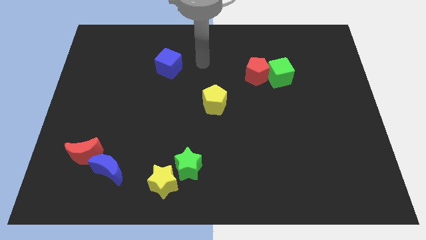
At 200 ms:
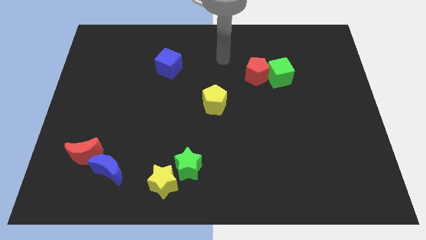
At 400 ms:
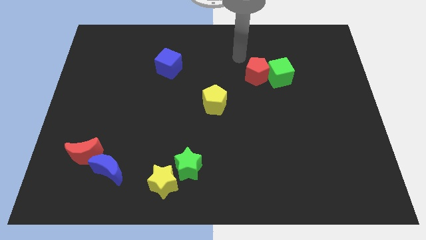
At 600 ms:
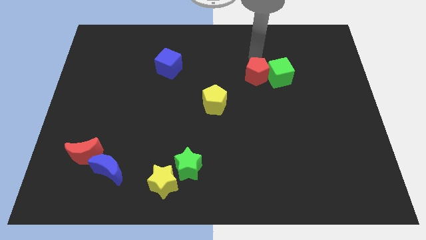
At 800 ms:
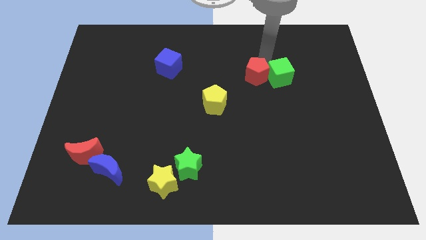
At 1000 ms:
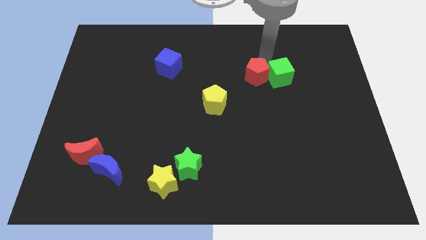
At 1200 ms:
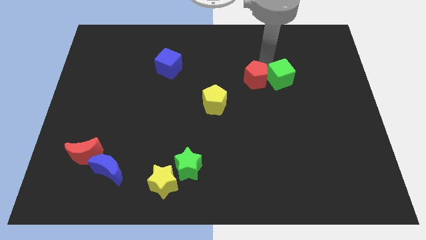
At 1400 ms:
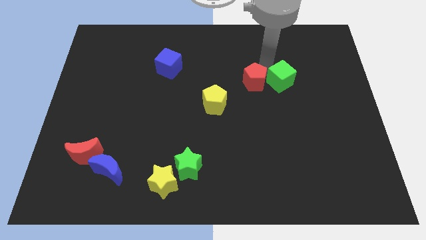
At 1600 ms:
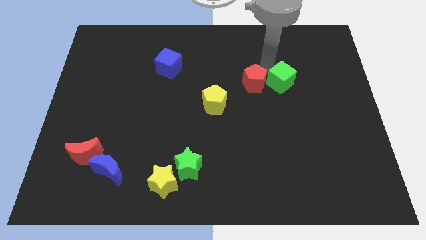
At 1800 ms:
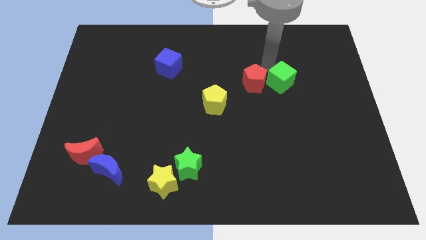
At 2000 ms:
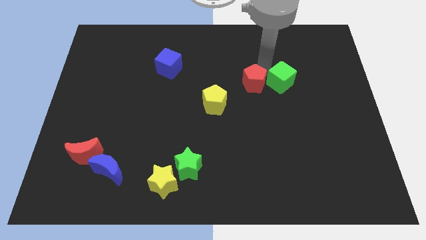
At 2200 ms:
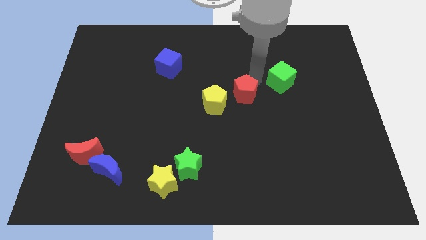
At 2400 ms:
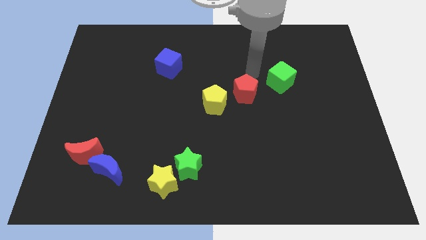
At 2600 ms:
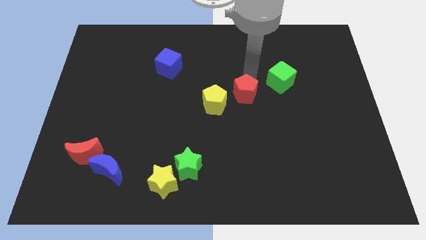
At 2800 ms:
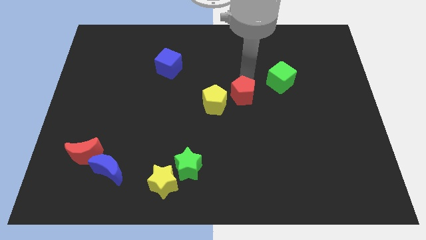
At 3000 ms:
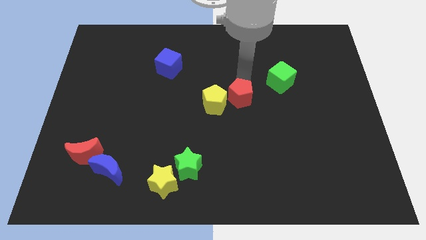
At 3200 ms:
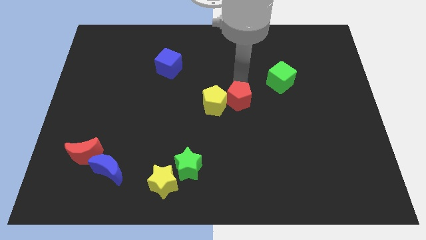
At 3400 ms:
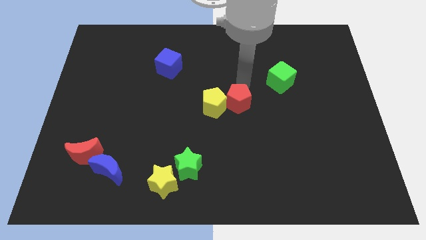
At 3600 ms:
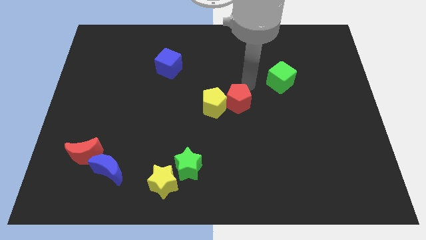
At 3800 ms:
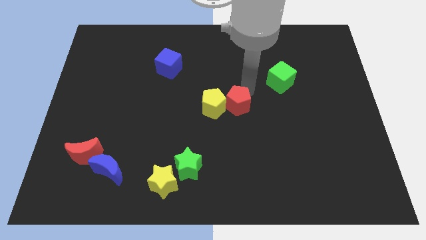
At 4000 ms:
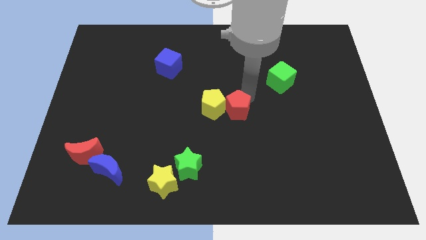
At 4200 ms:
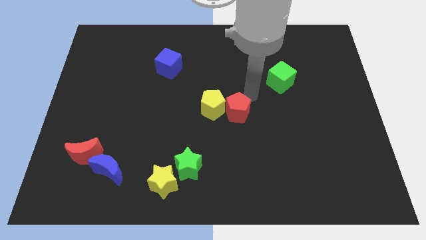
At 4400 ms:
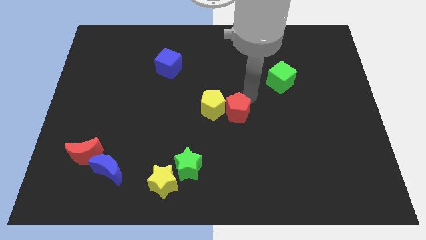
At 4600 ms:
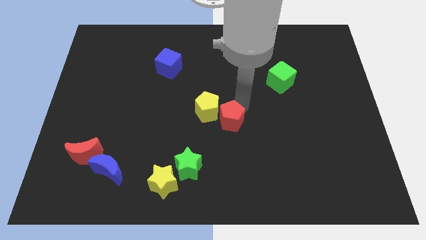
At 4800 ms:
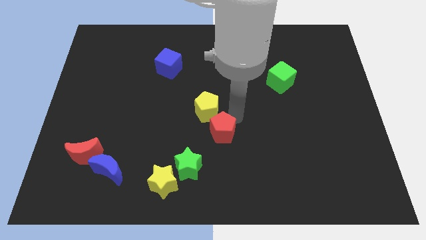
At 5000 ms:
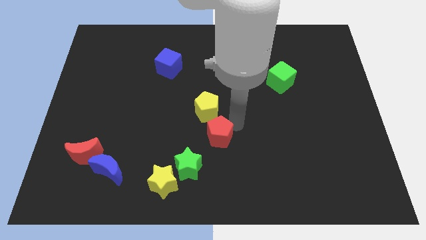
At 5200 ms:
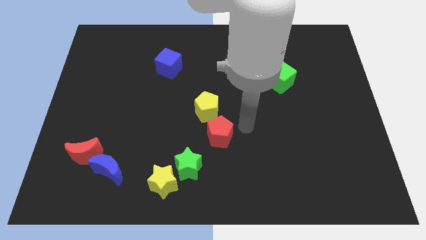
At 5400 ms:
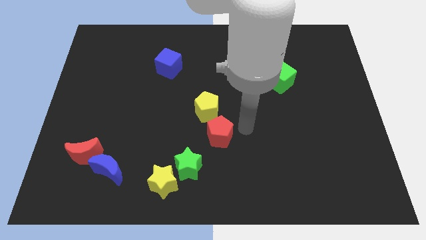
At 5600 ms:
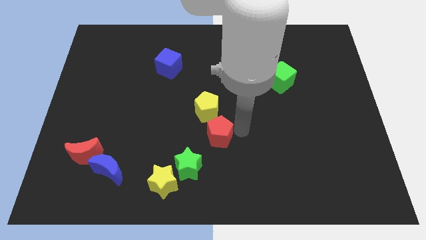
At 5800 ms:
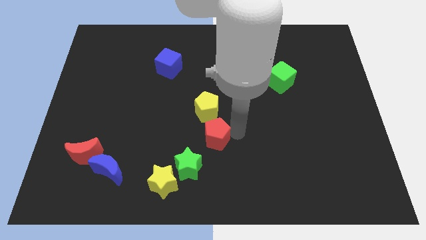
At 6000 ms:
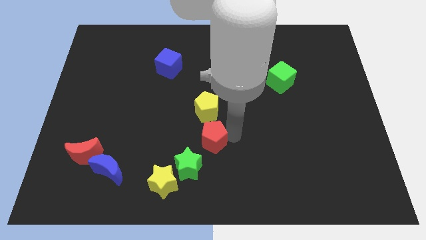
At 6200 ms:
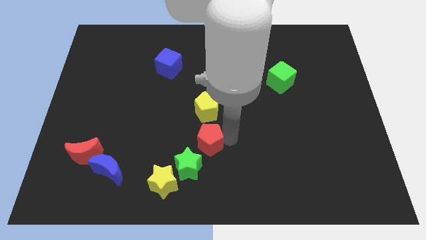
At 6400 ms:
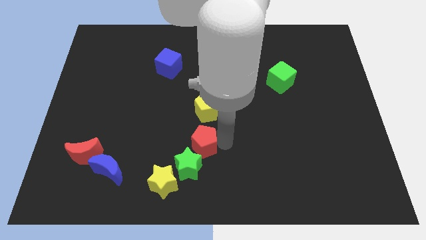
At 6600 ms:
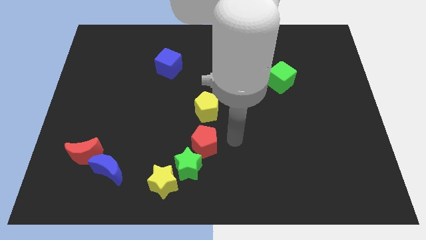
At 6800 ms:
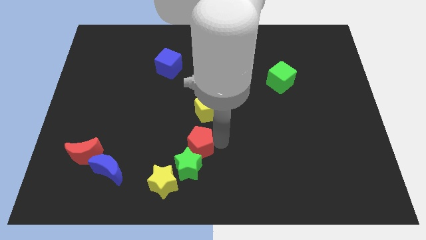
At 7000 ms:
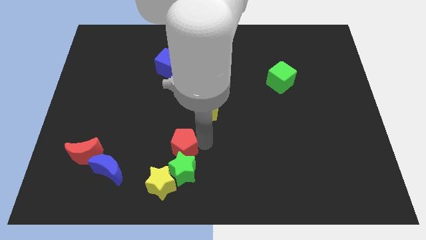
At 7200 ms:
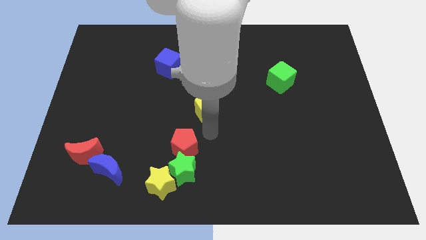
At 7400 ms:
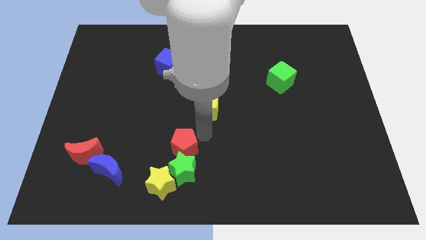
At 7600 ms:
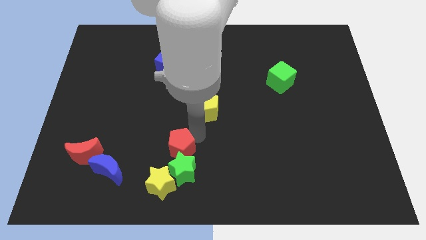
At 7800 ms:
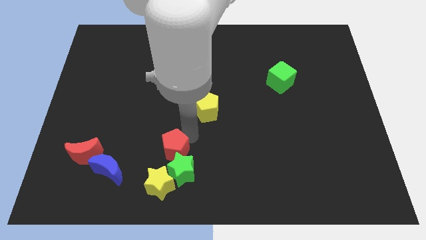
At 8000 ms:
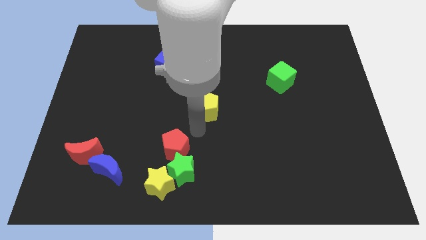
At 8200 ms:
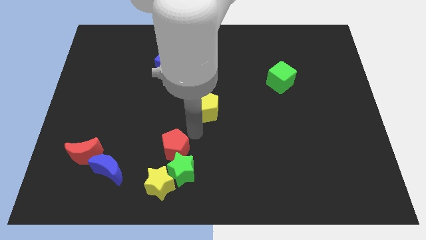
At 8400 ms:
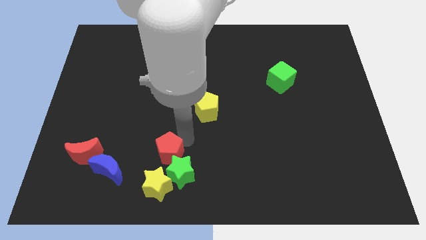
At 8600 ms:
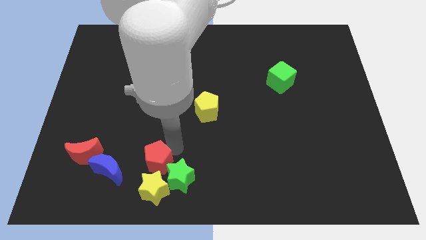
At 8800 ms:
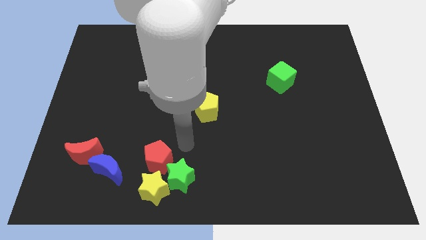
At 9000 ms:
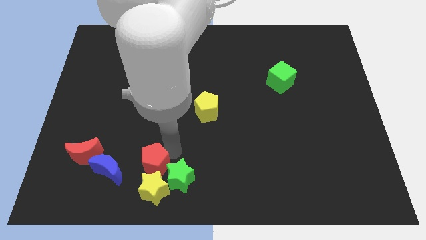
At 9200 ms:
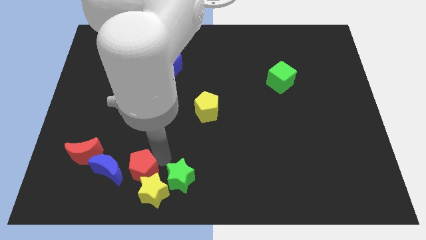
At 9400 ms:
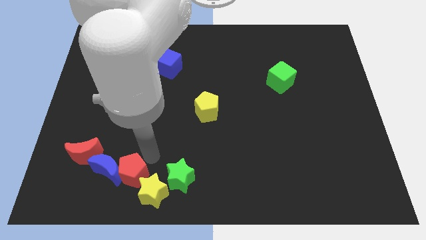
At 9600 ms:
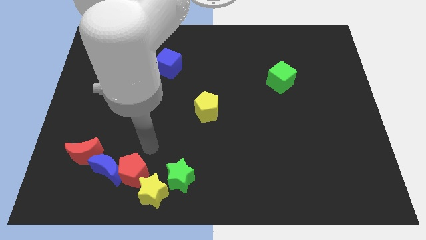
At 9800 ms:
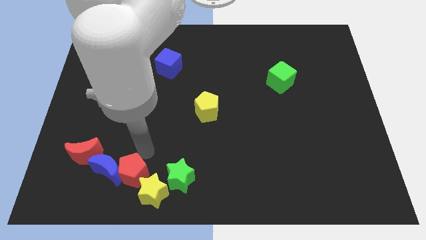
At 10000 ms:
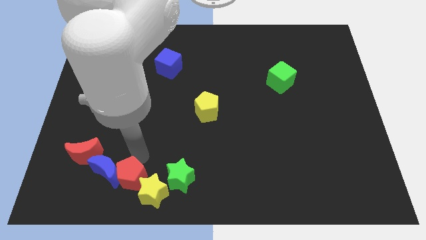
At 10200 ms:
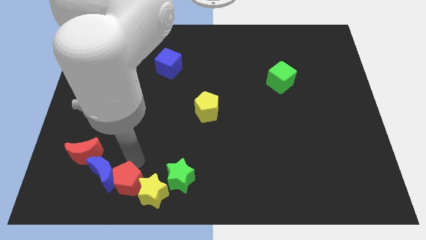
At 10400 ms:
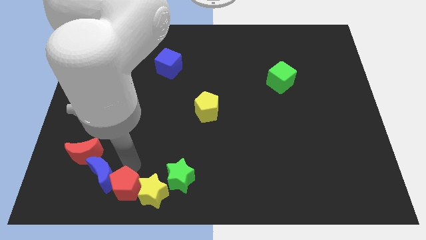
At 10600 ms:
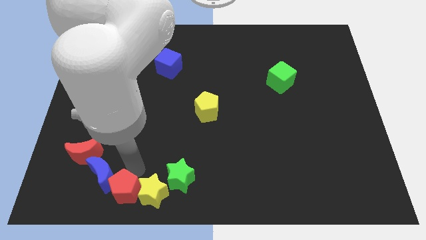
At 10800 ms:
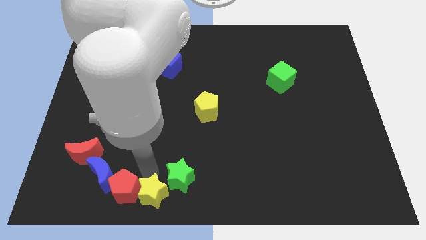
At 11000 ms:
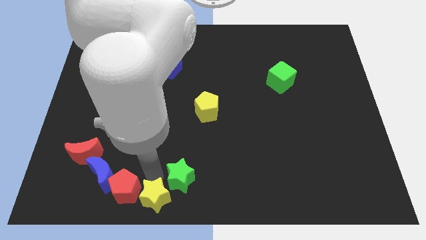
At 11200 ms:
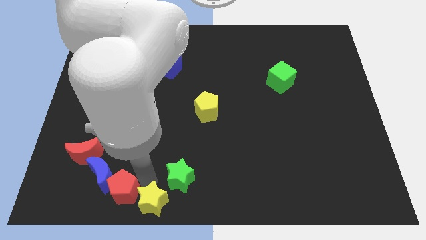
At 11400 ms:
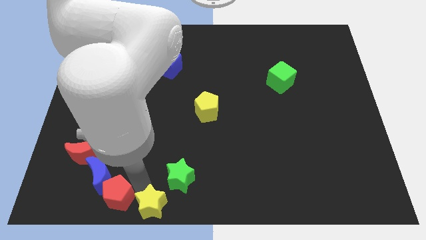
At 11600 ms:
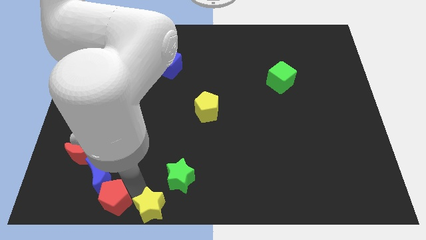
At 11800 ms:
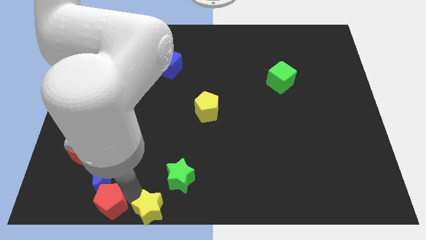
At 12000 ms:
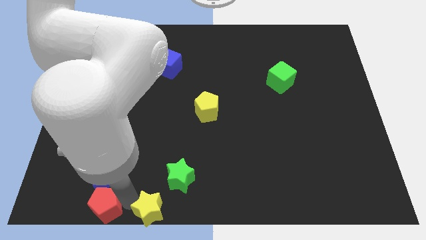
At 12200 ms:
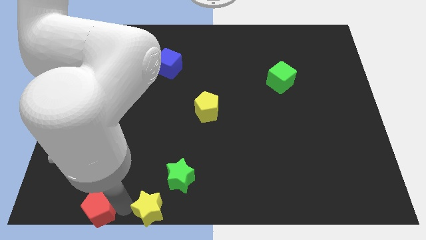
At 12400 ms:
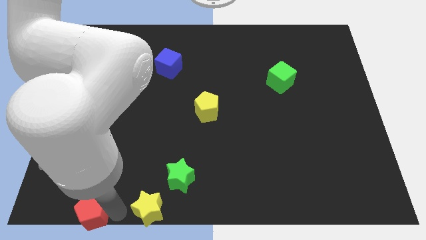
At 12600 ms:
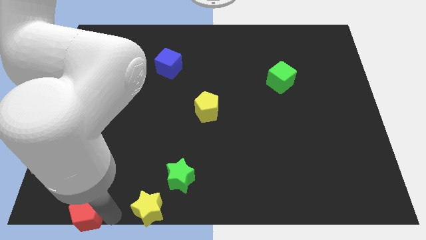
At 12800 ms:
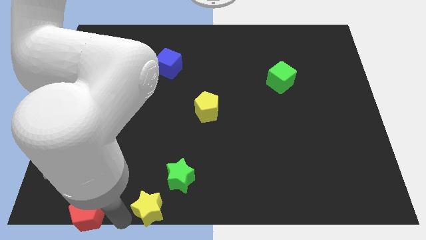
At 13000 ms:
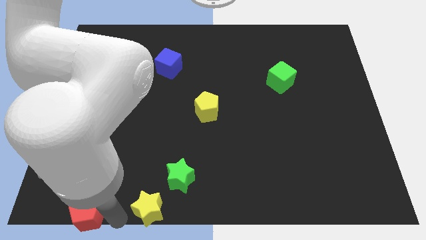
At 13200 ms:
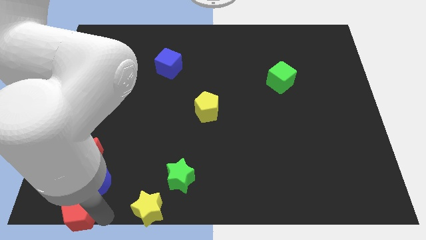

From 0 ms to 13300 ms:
put the red pentagon to the bottom left of the board

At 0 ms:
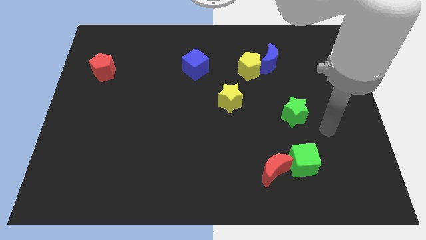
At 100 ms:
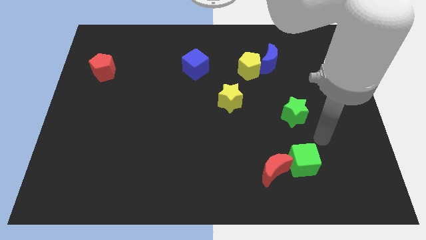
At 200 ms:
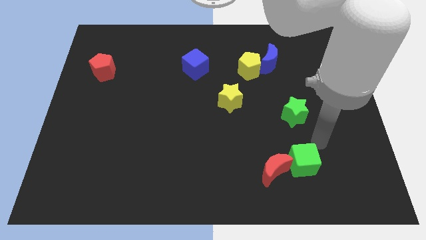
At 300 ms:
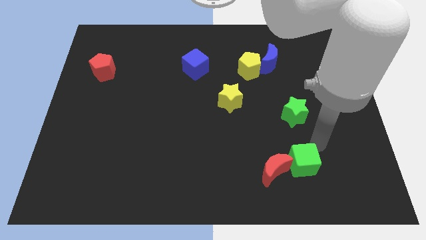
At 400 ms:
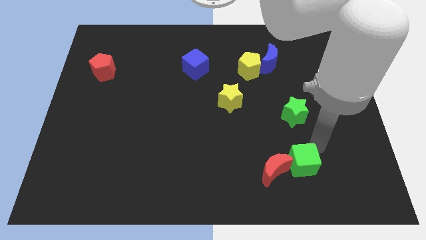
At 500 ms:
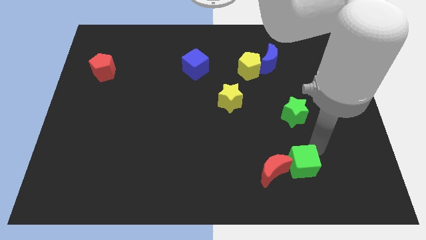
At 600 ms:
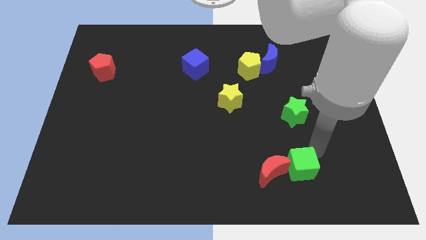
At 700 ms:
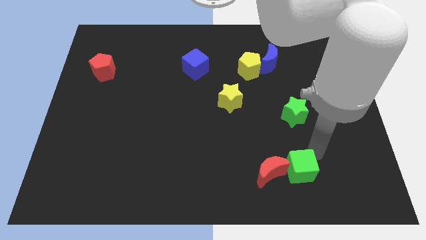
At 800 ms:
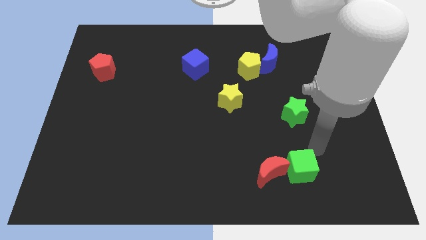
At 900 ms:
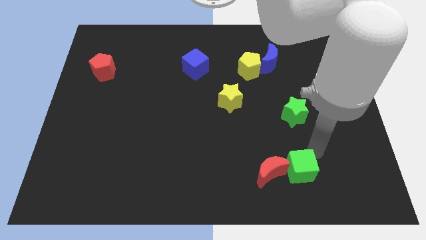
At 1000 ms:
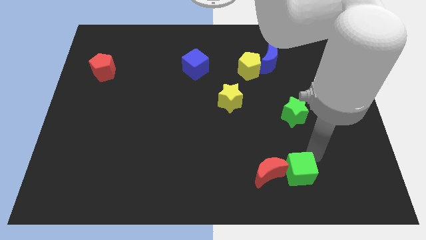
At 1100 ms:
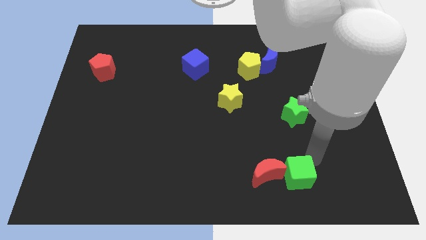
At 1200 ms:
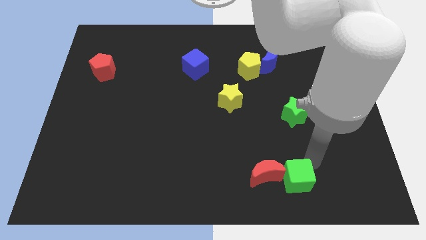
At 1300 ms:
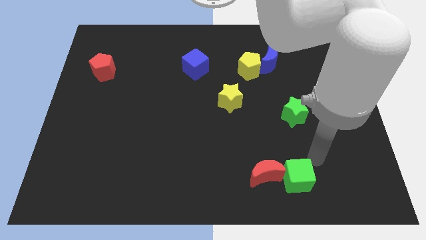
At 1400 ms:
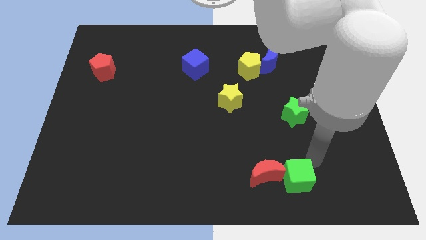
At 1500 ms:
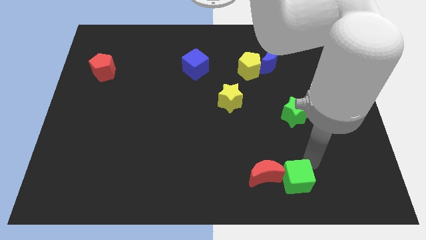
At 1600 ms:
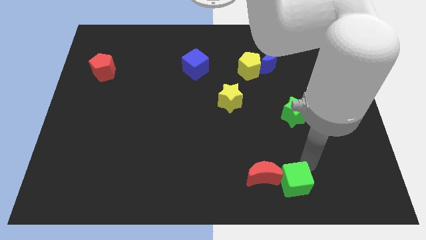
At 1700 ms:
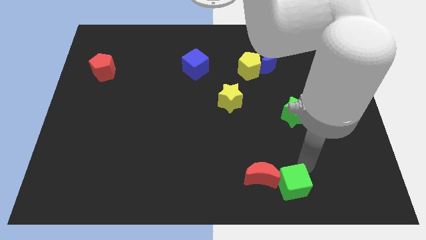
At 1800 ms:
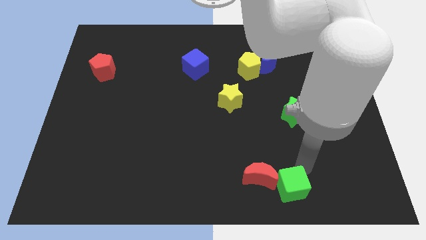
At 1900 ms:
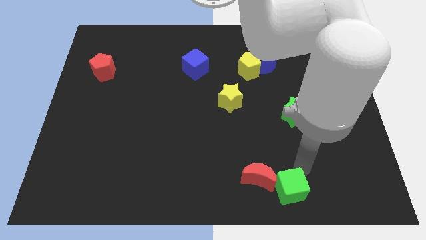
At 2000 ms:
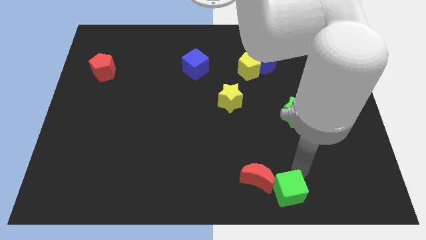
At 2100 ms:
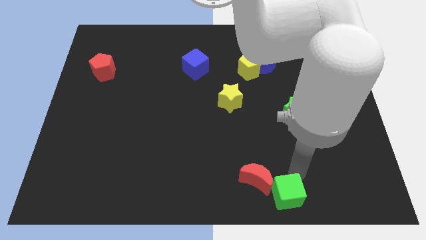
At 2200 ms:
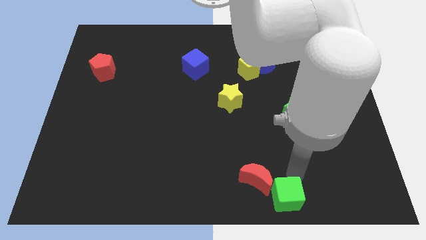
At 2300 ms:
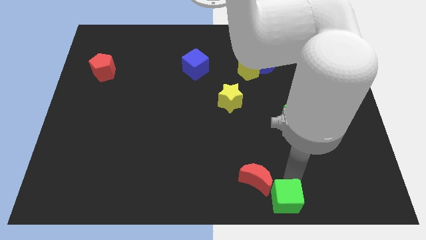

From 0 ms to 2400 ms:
put the green cube to the bottom
